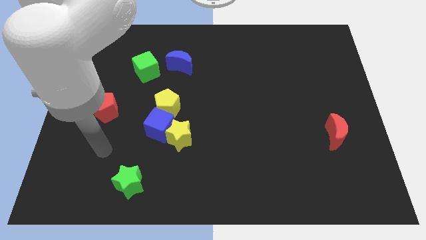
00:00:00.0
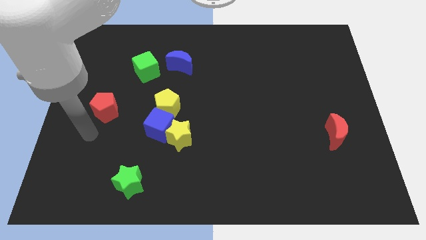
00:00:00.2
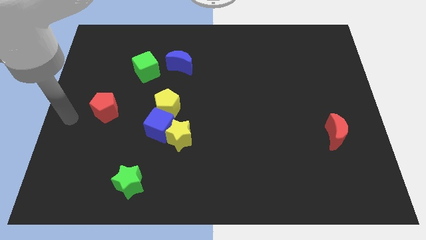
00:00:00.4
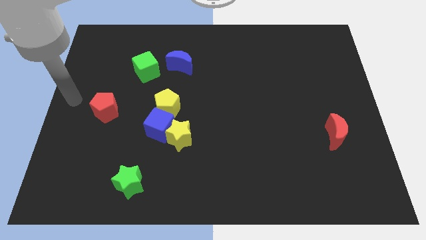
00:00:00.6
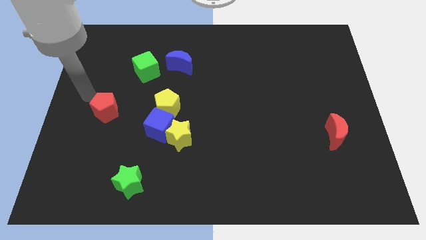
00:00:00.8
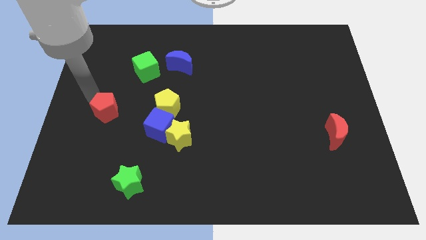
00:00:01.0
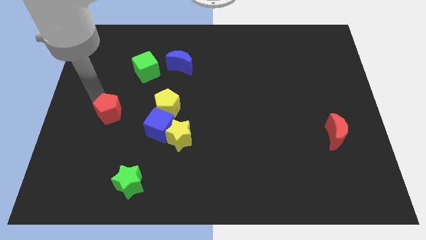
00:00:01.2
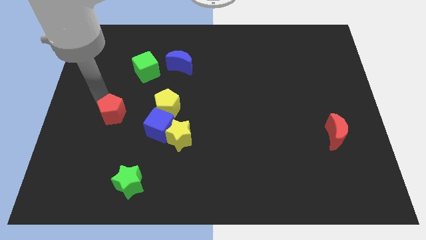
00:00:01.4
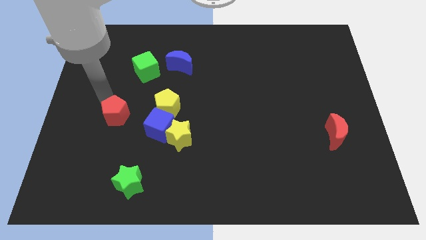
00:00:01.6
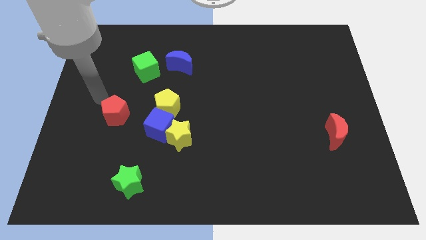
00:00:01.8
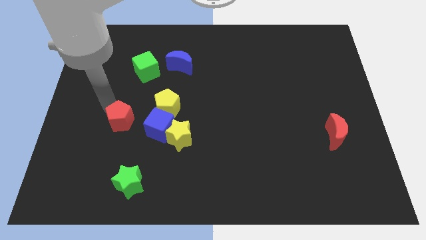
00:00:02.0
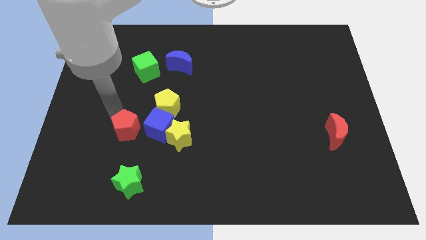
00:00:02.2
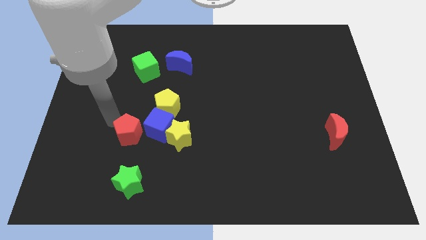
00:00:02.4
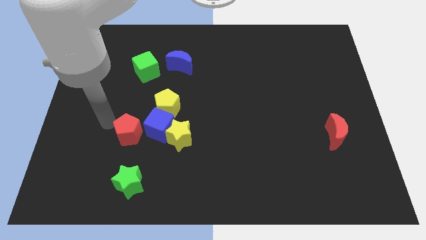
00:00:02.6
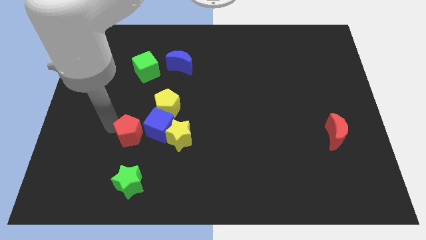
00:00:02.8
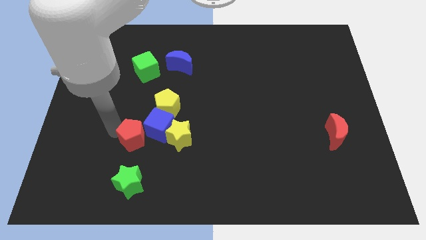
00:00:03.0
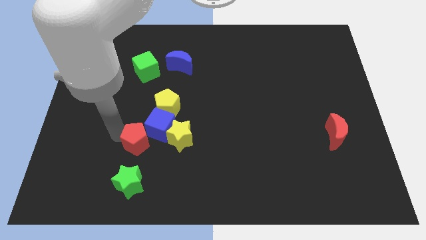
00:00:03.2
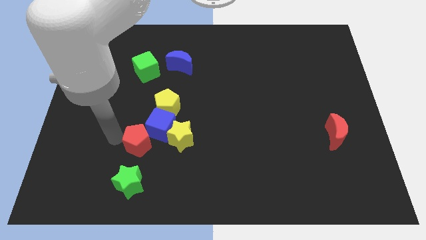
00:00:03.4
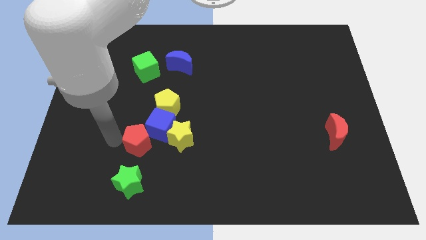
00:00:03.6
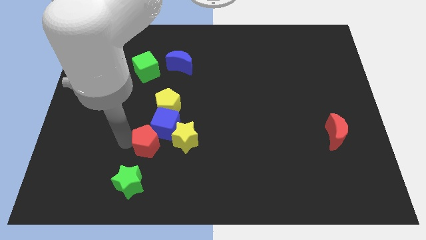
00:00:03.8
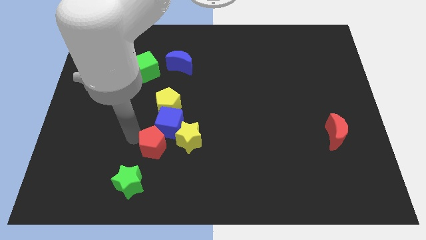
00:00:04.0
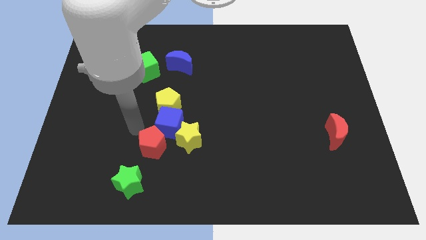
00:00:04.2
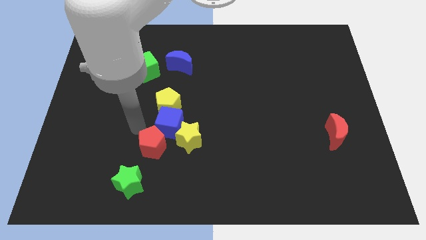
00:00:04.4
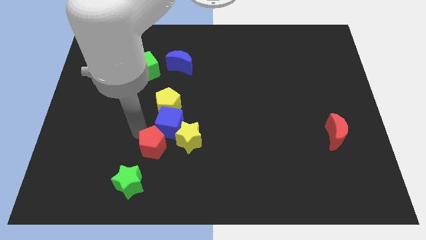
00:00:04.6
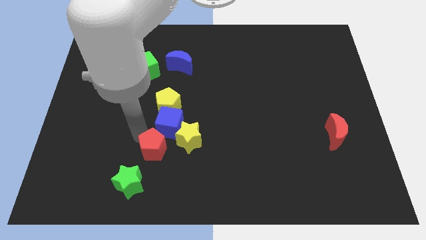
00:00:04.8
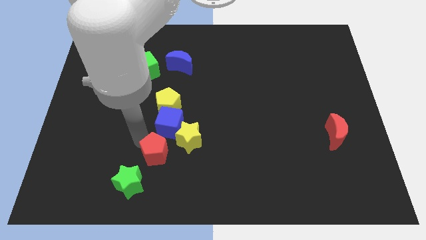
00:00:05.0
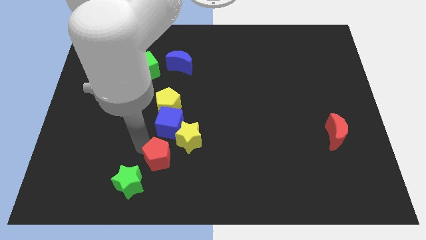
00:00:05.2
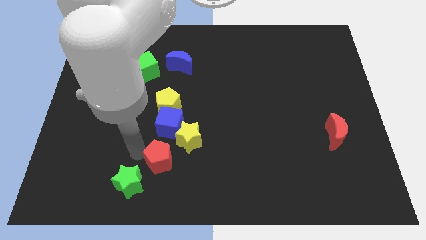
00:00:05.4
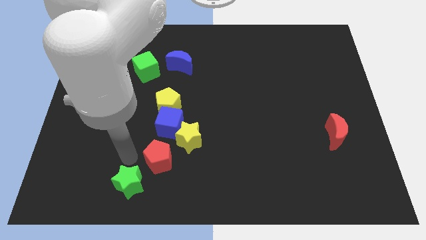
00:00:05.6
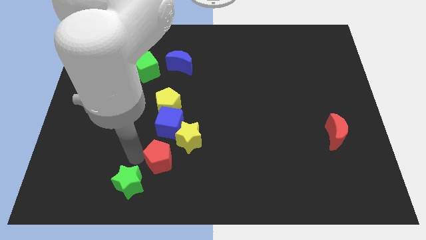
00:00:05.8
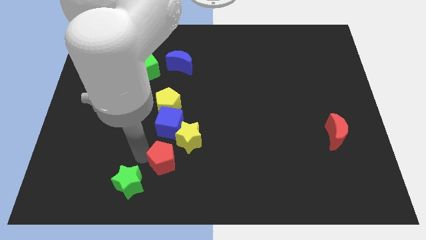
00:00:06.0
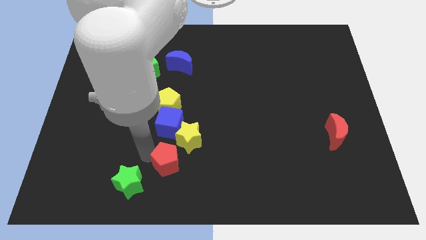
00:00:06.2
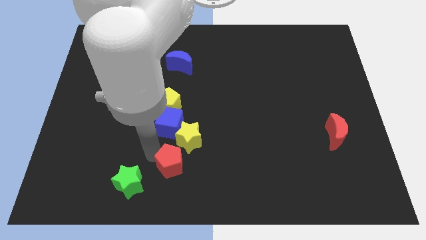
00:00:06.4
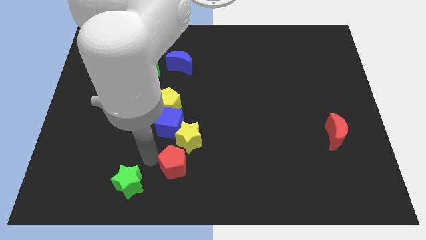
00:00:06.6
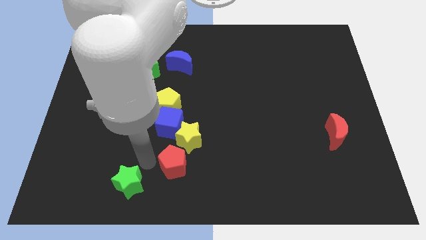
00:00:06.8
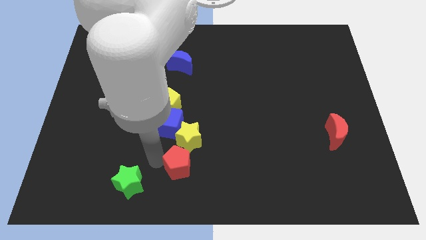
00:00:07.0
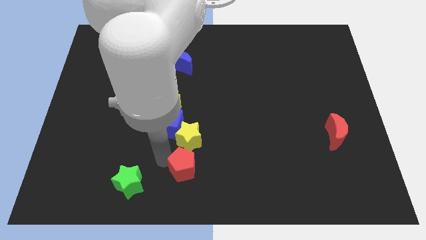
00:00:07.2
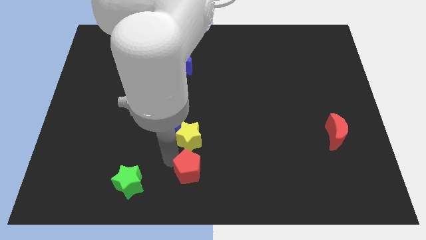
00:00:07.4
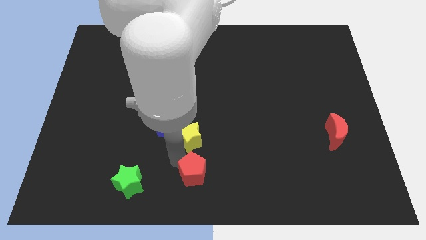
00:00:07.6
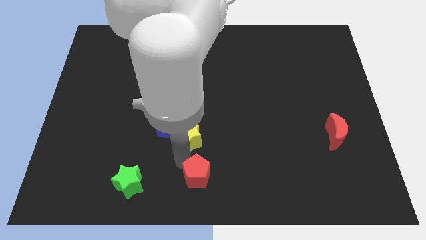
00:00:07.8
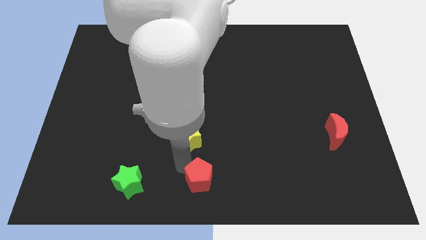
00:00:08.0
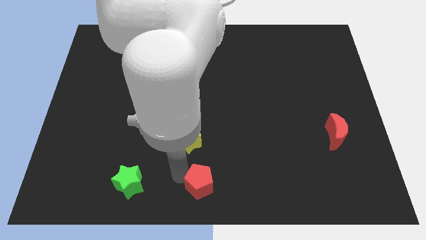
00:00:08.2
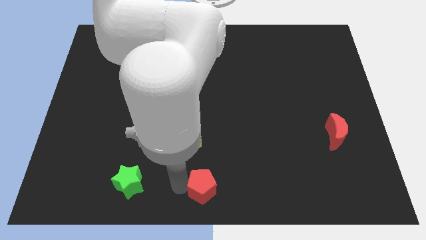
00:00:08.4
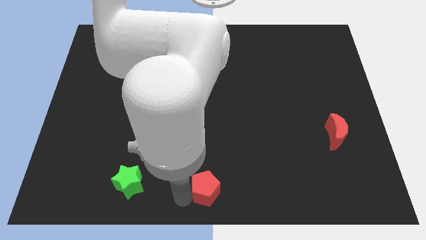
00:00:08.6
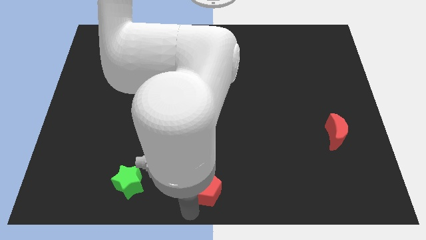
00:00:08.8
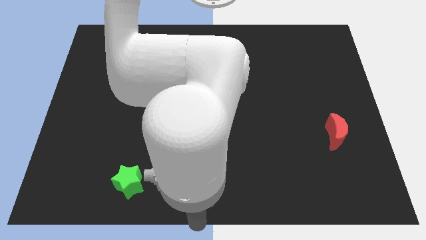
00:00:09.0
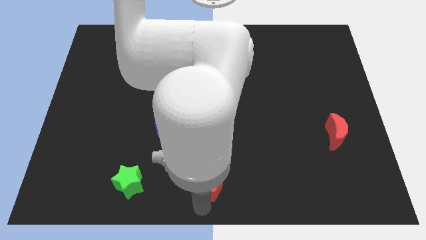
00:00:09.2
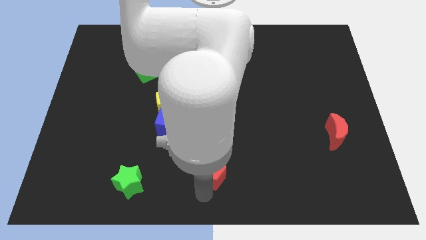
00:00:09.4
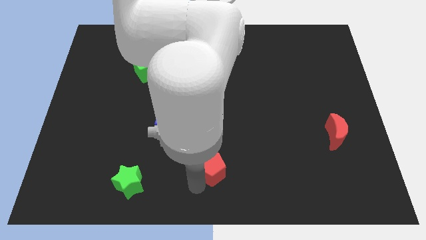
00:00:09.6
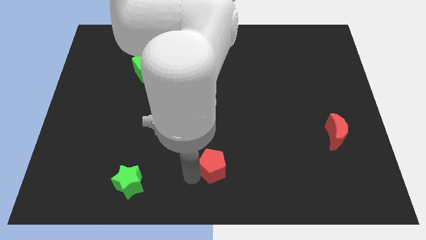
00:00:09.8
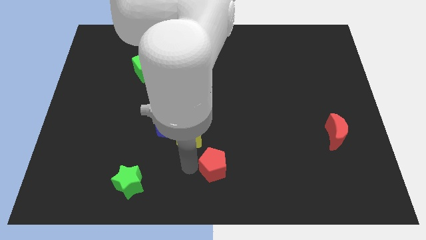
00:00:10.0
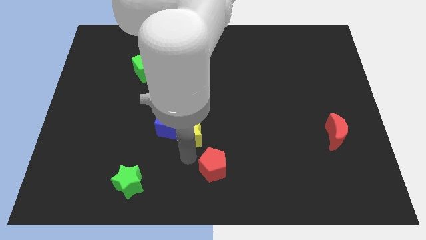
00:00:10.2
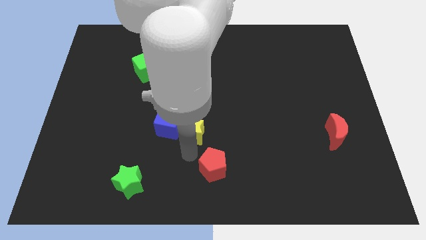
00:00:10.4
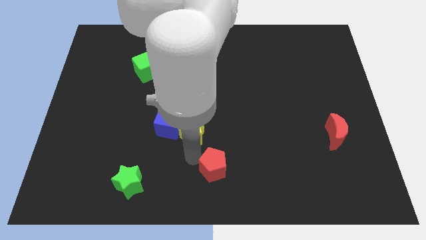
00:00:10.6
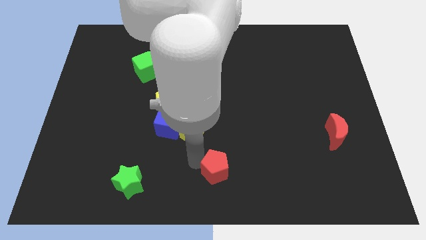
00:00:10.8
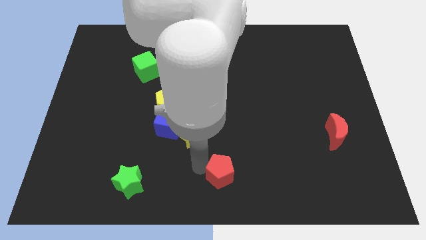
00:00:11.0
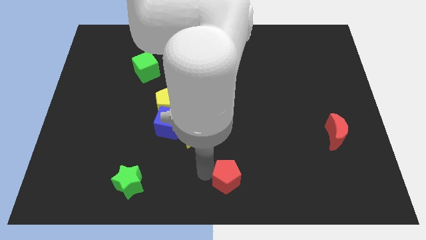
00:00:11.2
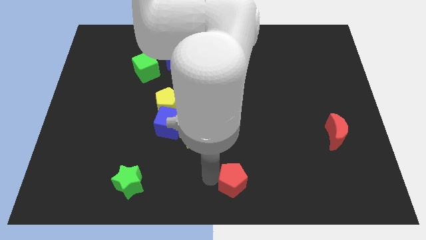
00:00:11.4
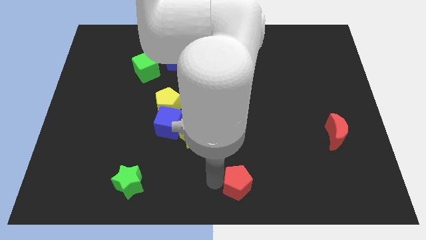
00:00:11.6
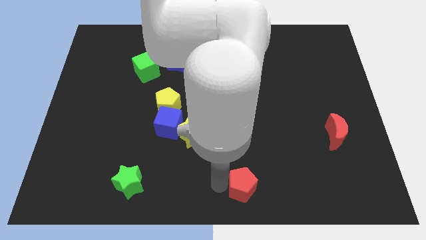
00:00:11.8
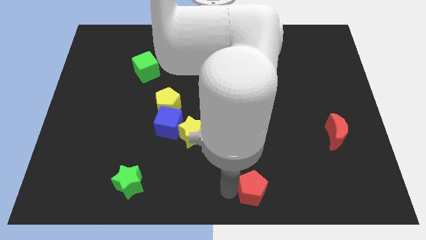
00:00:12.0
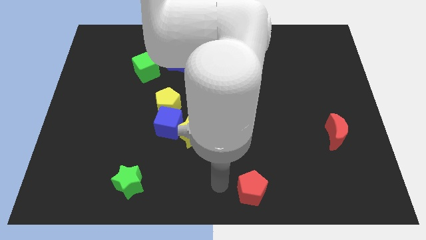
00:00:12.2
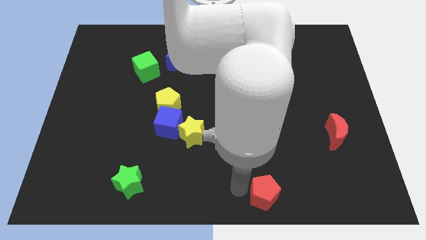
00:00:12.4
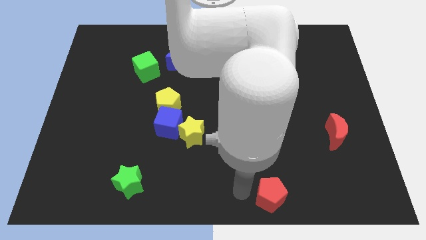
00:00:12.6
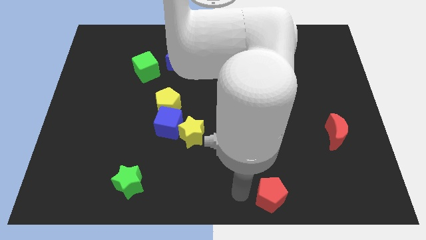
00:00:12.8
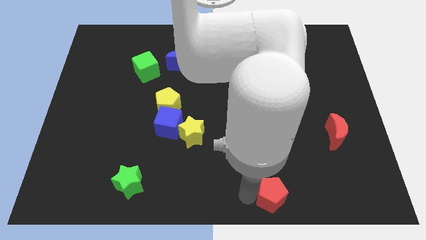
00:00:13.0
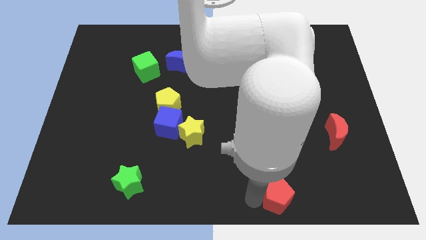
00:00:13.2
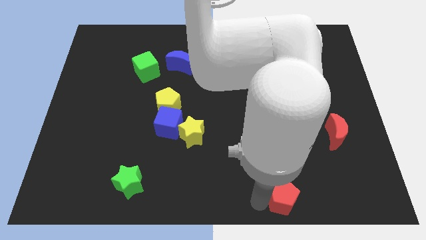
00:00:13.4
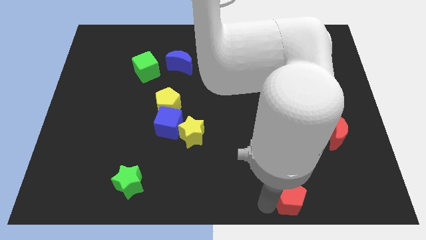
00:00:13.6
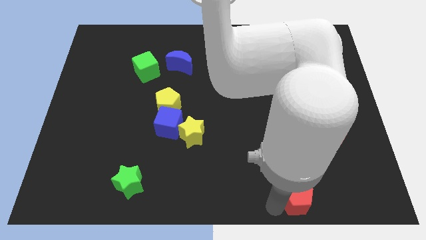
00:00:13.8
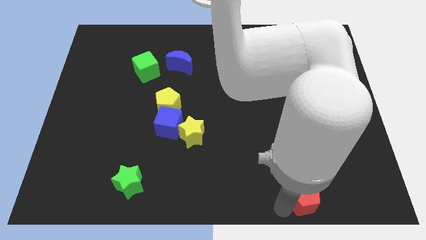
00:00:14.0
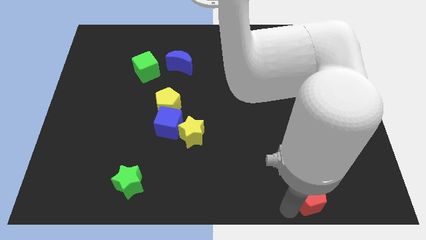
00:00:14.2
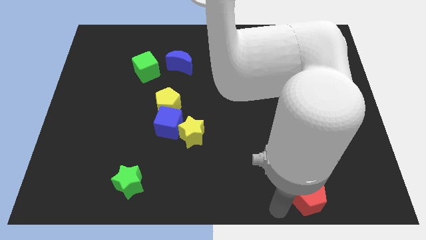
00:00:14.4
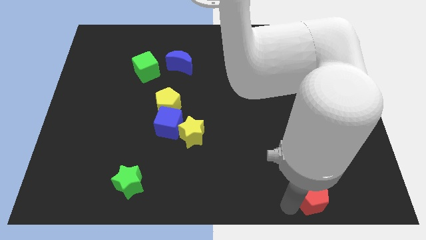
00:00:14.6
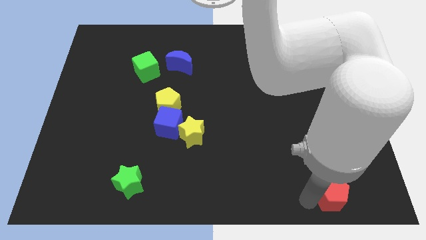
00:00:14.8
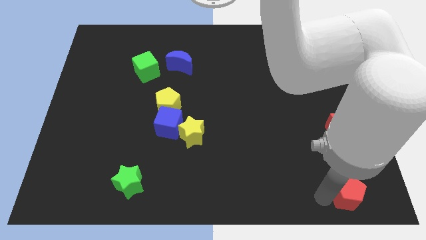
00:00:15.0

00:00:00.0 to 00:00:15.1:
slide the red pentagon to the lower right corner
